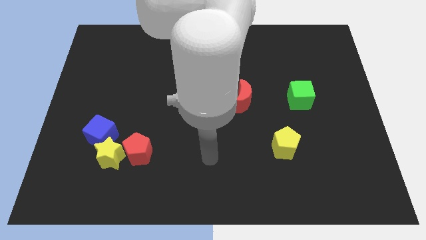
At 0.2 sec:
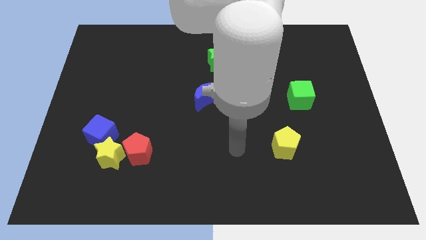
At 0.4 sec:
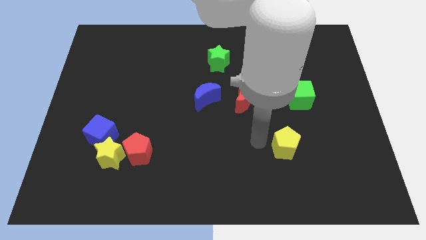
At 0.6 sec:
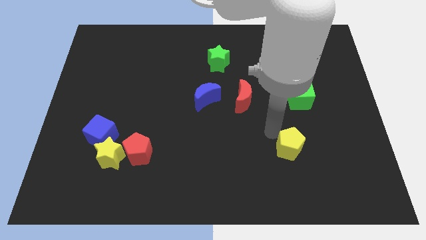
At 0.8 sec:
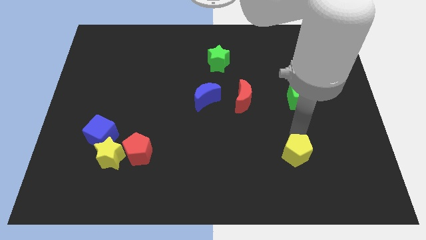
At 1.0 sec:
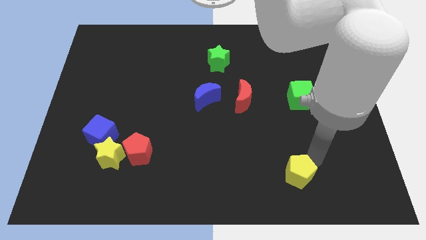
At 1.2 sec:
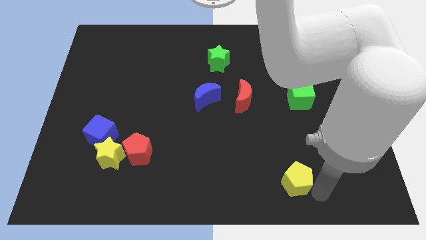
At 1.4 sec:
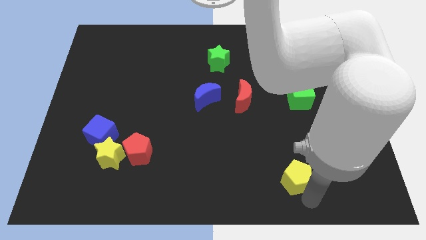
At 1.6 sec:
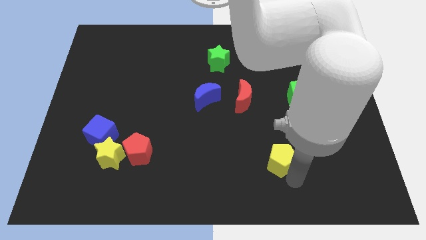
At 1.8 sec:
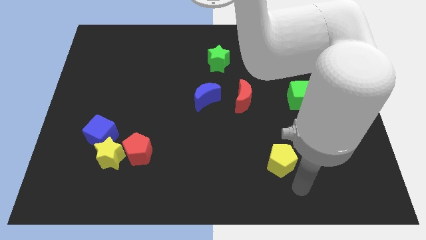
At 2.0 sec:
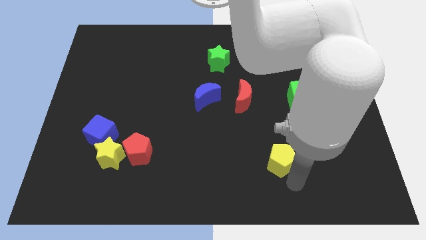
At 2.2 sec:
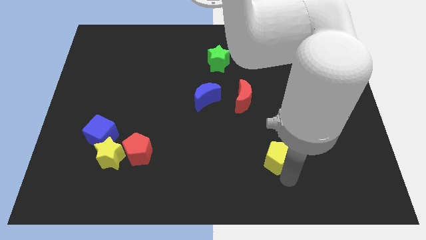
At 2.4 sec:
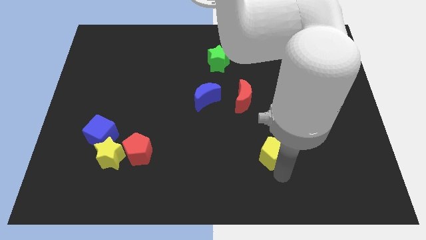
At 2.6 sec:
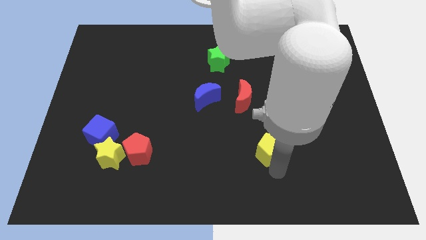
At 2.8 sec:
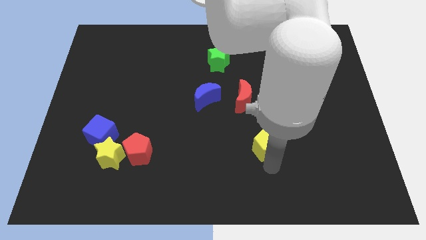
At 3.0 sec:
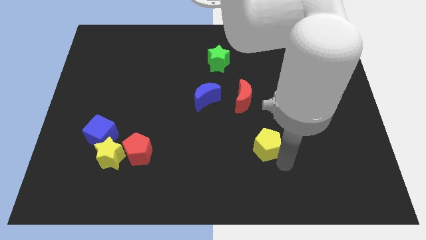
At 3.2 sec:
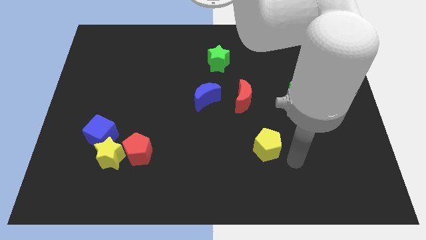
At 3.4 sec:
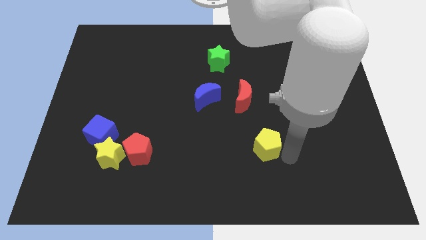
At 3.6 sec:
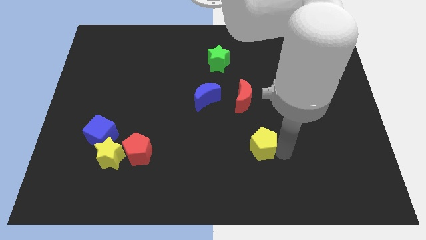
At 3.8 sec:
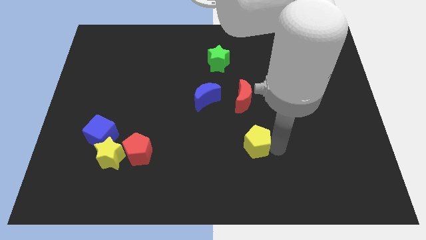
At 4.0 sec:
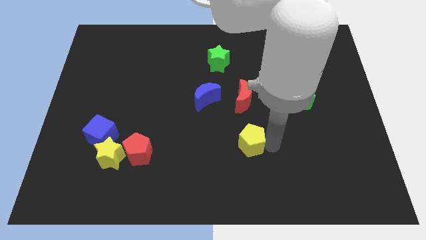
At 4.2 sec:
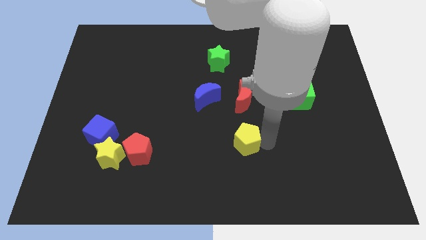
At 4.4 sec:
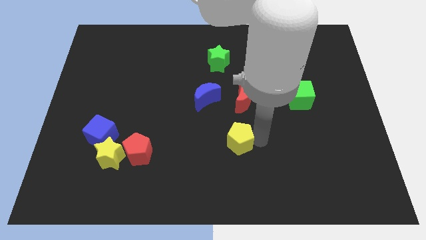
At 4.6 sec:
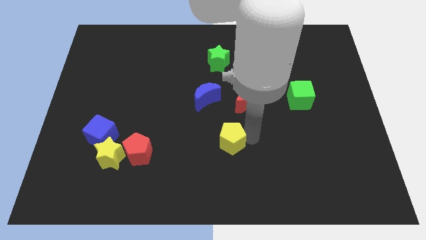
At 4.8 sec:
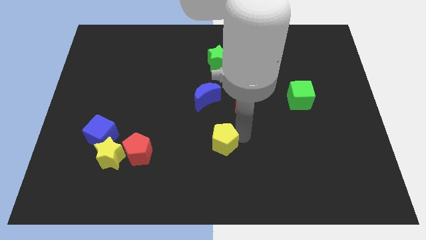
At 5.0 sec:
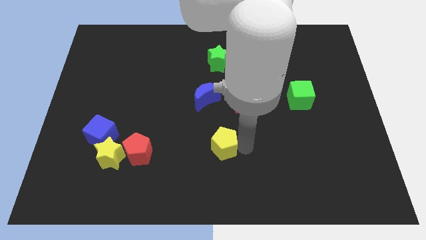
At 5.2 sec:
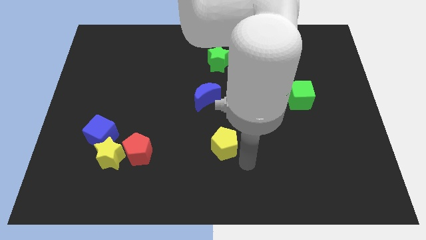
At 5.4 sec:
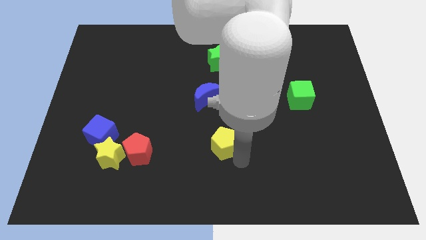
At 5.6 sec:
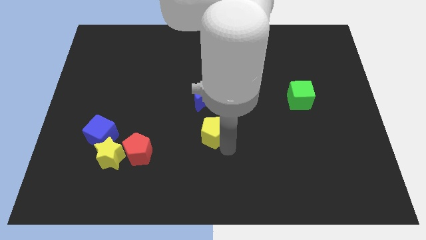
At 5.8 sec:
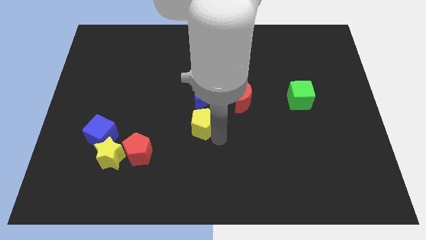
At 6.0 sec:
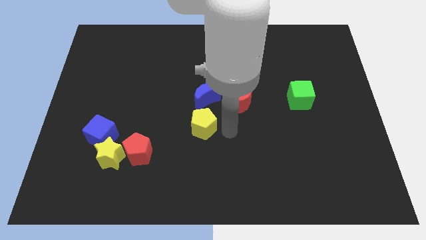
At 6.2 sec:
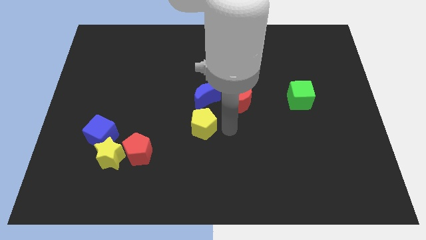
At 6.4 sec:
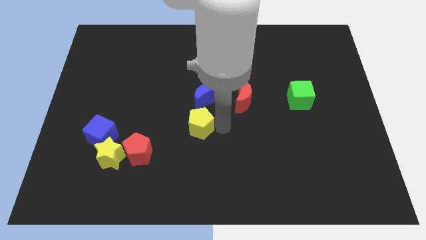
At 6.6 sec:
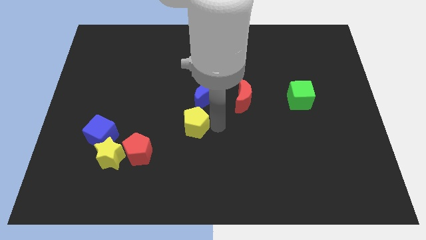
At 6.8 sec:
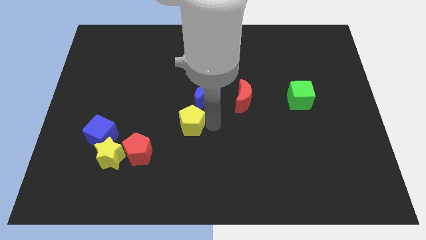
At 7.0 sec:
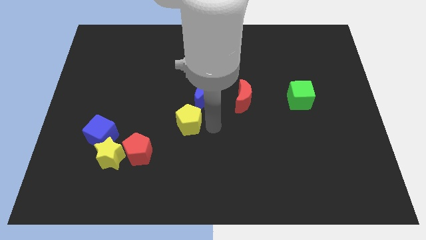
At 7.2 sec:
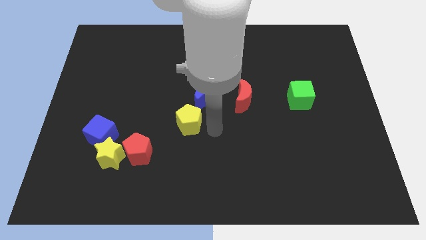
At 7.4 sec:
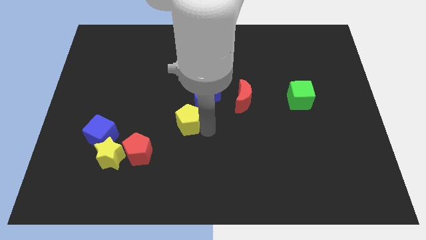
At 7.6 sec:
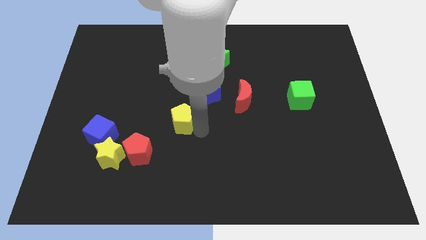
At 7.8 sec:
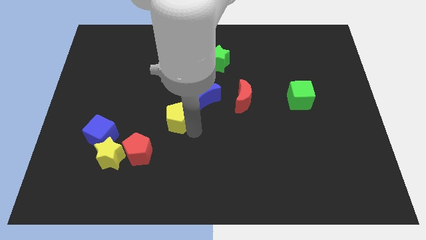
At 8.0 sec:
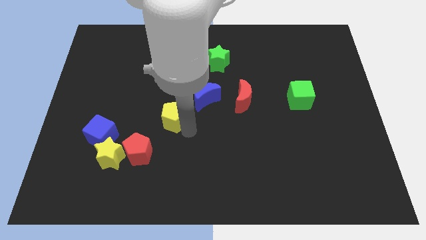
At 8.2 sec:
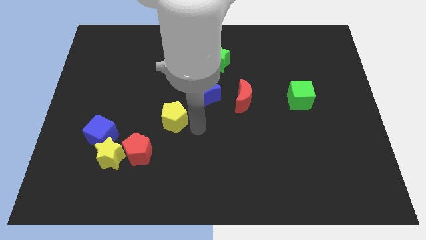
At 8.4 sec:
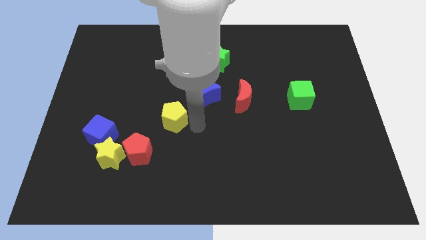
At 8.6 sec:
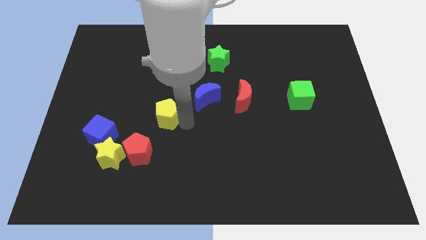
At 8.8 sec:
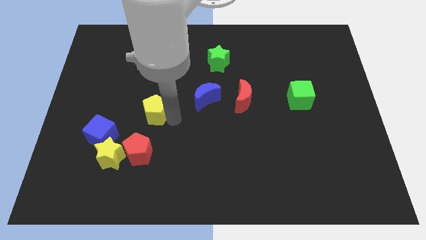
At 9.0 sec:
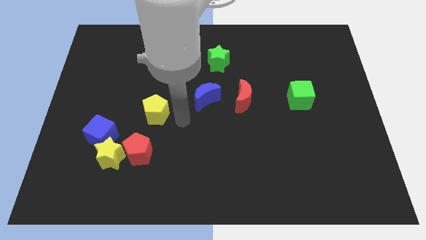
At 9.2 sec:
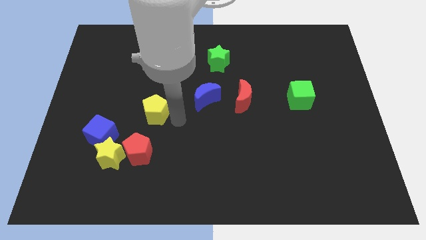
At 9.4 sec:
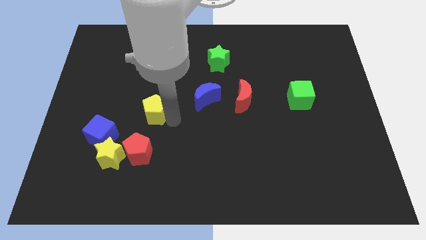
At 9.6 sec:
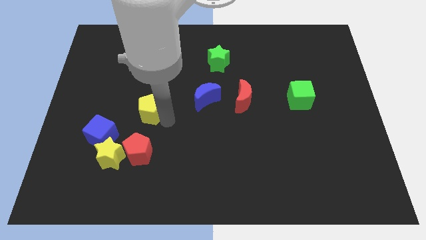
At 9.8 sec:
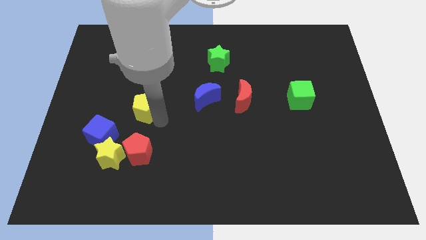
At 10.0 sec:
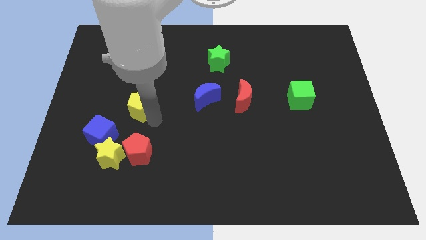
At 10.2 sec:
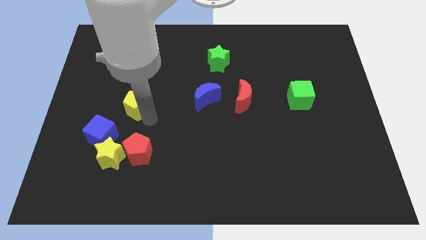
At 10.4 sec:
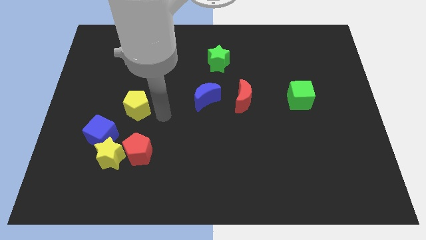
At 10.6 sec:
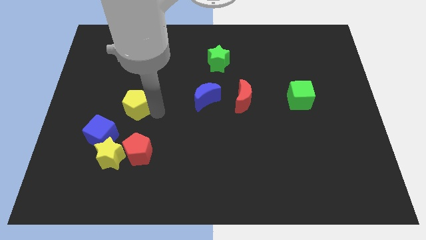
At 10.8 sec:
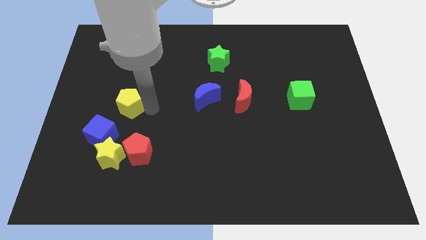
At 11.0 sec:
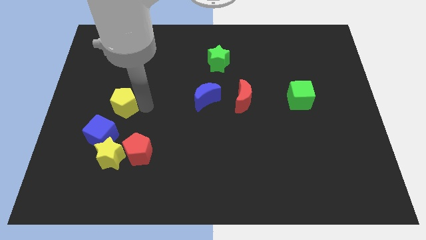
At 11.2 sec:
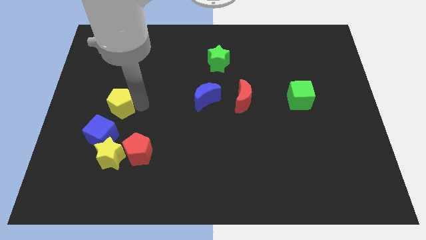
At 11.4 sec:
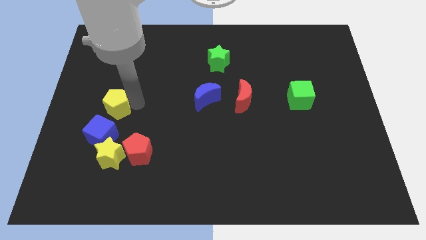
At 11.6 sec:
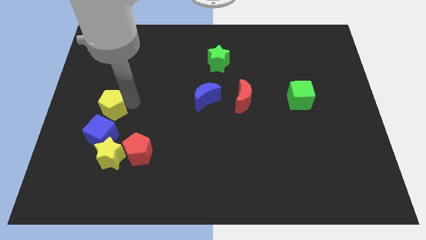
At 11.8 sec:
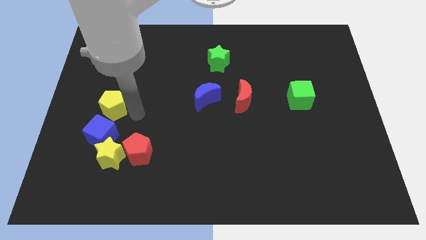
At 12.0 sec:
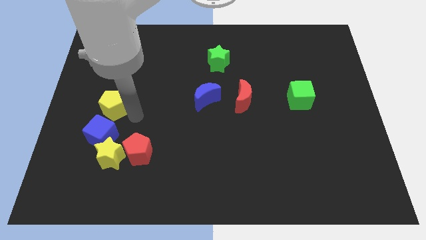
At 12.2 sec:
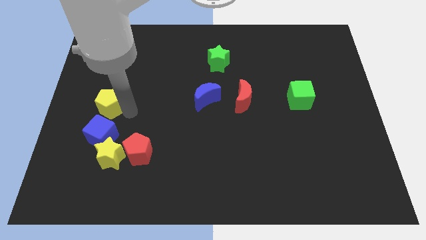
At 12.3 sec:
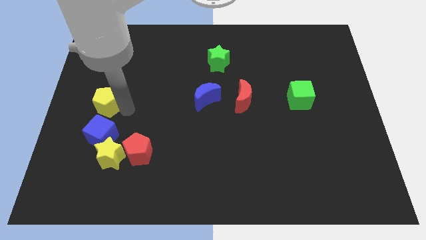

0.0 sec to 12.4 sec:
push the yellow pentagon to the left side
